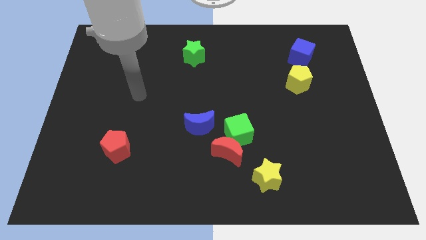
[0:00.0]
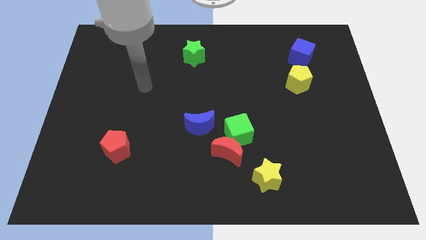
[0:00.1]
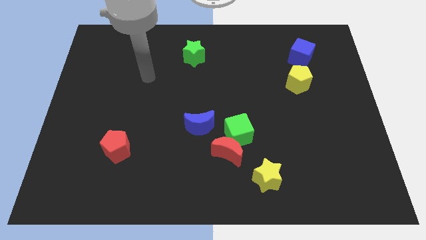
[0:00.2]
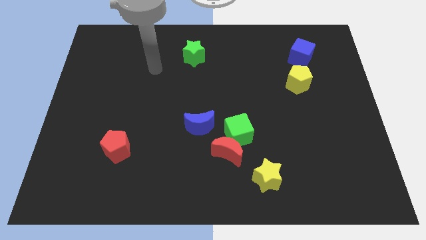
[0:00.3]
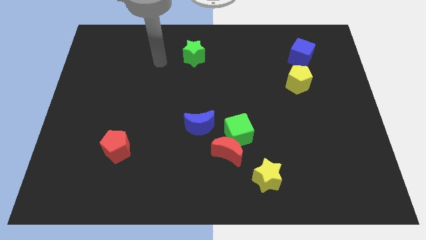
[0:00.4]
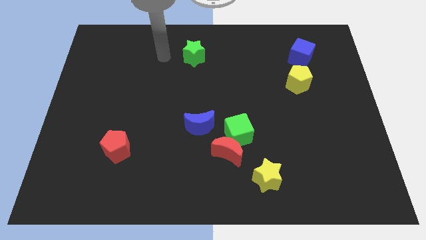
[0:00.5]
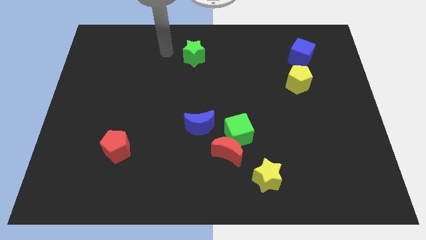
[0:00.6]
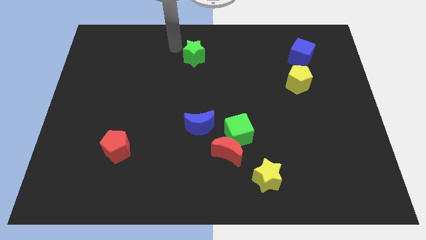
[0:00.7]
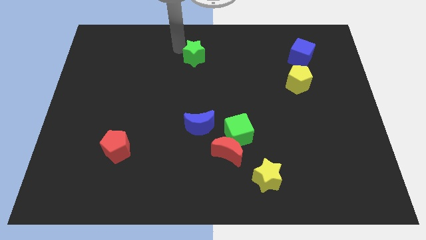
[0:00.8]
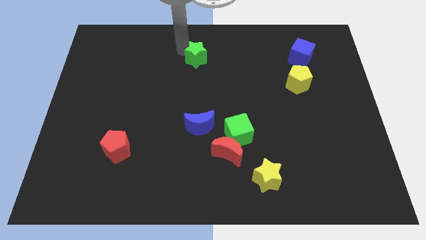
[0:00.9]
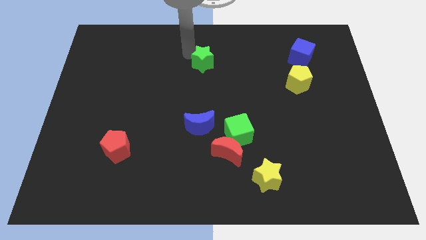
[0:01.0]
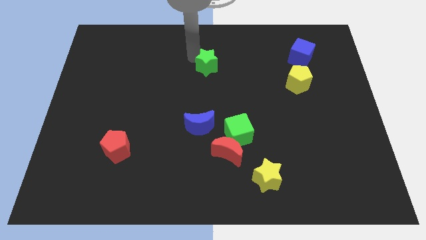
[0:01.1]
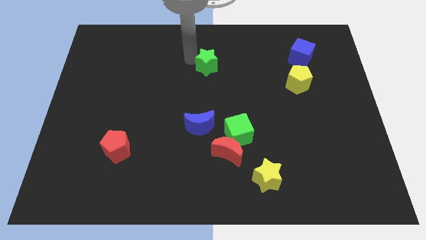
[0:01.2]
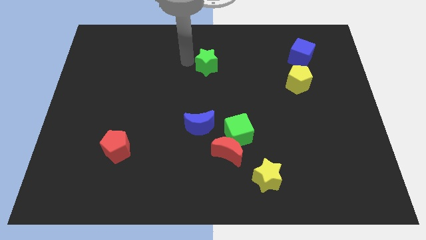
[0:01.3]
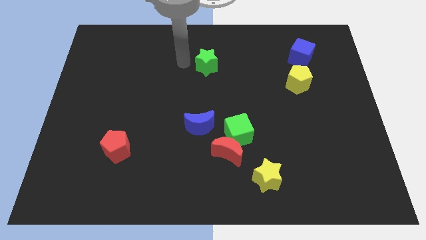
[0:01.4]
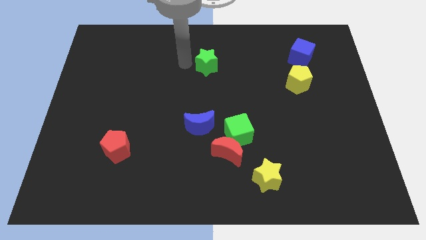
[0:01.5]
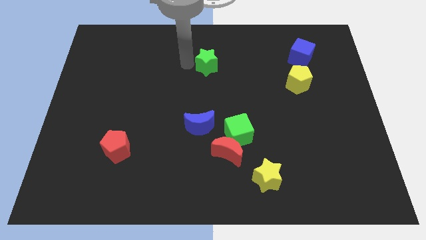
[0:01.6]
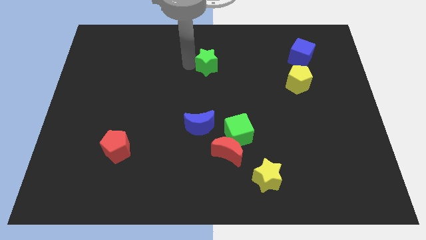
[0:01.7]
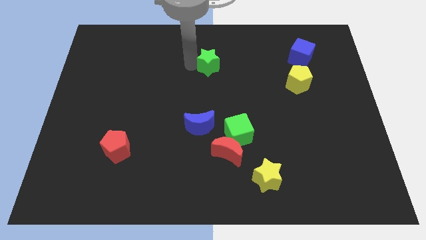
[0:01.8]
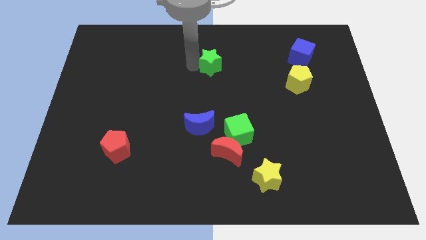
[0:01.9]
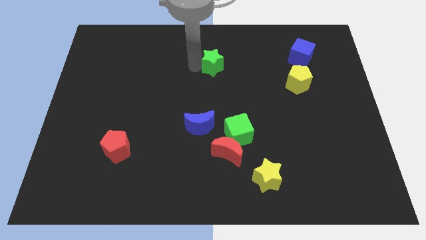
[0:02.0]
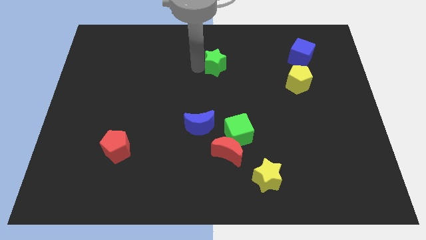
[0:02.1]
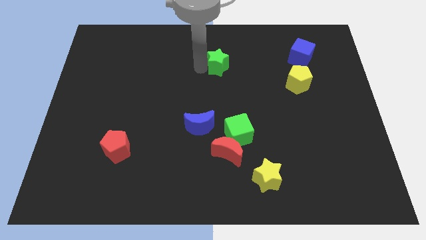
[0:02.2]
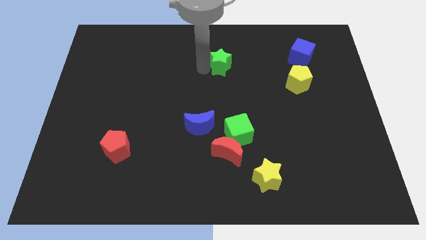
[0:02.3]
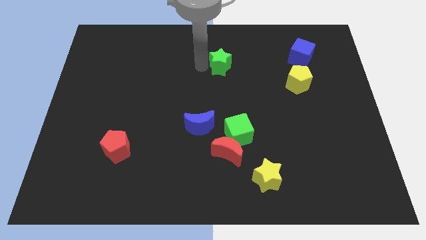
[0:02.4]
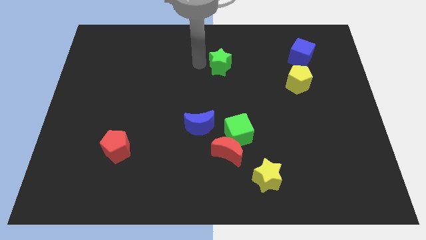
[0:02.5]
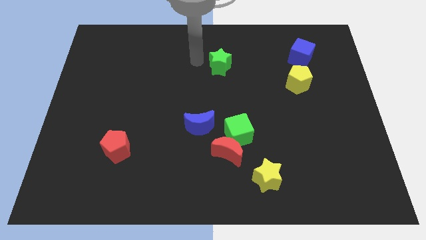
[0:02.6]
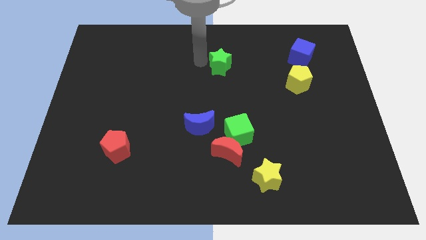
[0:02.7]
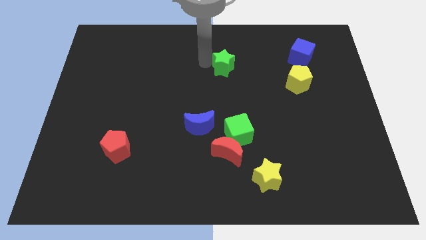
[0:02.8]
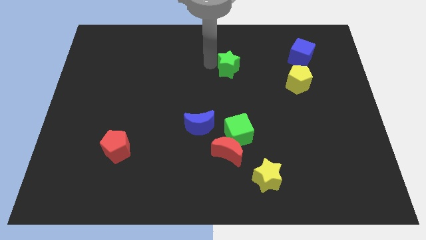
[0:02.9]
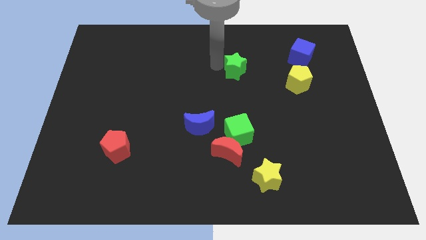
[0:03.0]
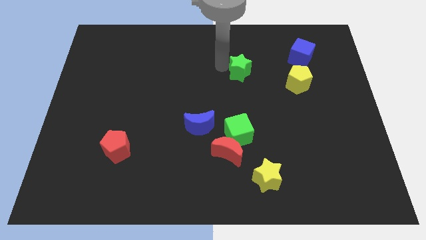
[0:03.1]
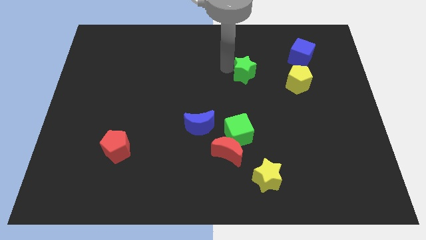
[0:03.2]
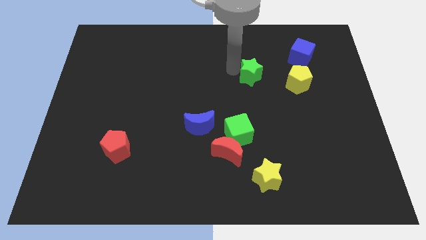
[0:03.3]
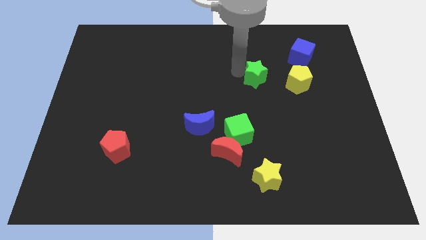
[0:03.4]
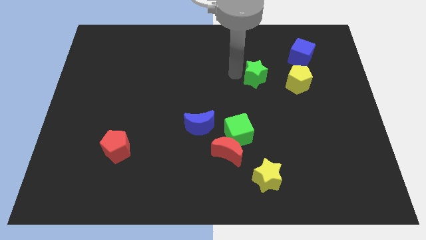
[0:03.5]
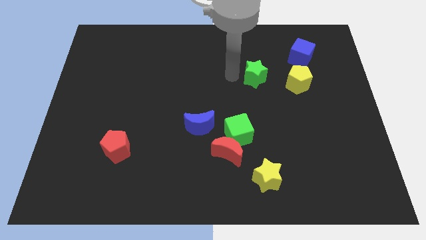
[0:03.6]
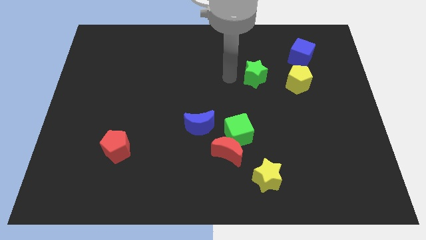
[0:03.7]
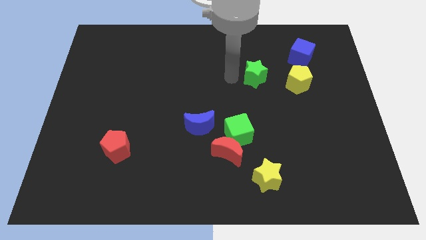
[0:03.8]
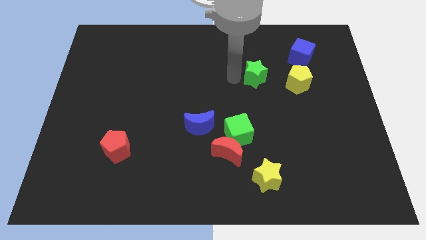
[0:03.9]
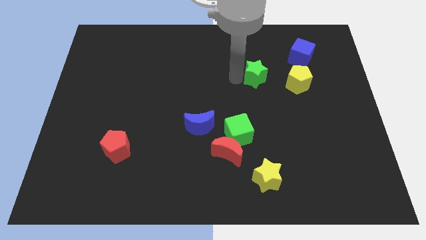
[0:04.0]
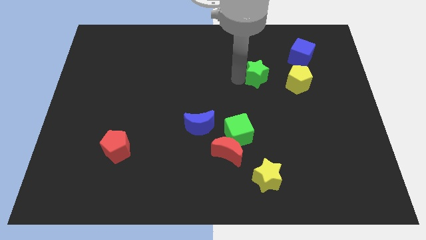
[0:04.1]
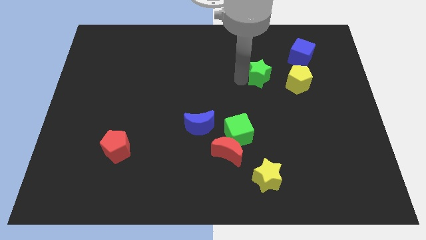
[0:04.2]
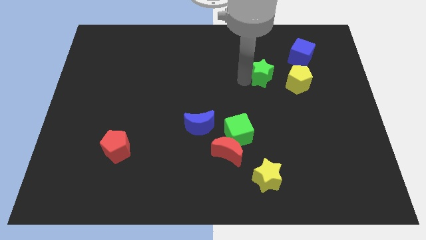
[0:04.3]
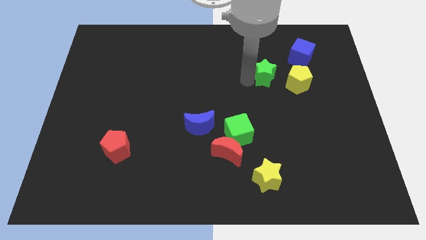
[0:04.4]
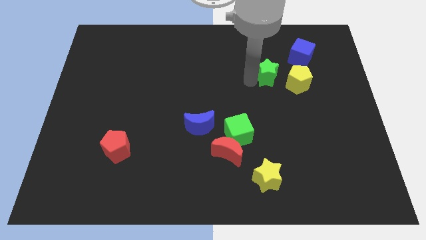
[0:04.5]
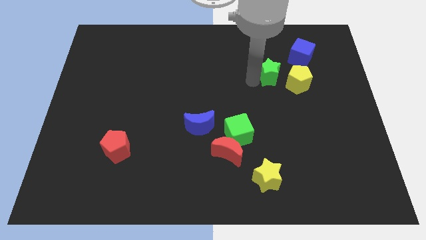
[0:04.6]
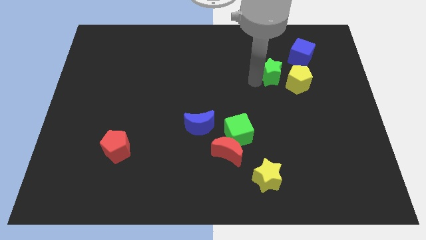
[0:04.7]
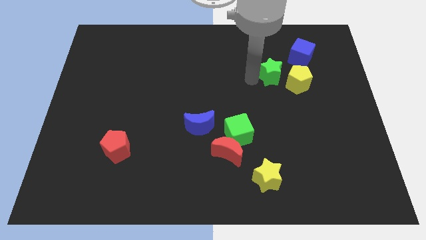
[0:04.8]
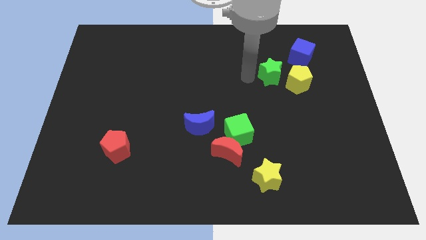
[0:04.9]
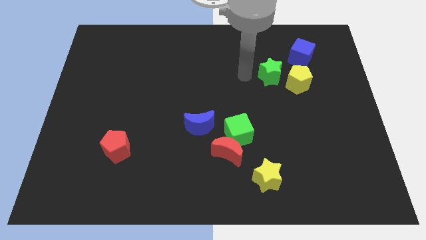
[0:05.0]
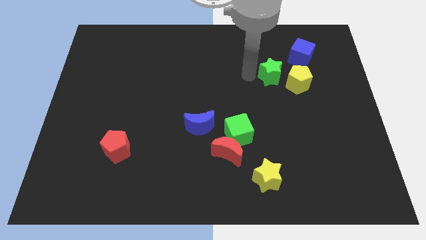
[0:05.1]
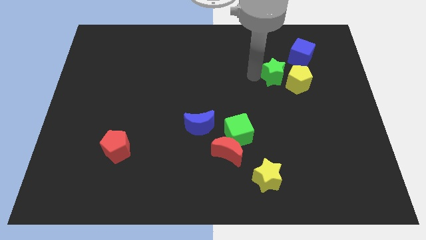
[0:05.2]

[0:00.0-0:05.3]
push the green star towards the yellow pentagon

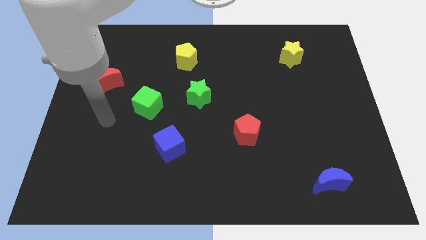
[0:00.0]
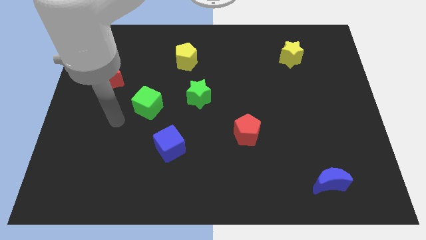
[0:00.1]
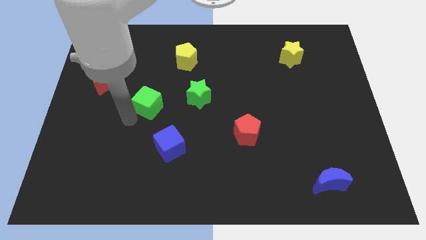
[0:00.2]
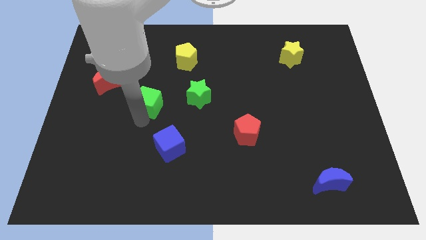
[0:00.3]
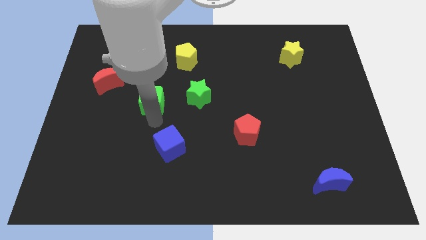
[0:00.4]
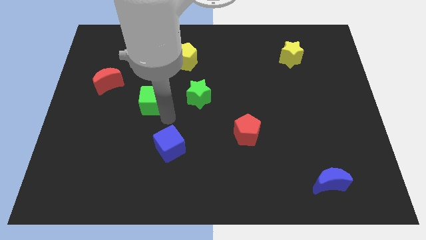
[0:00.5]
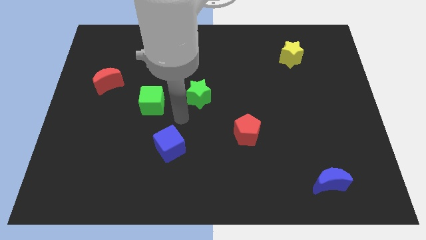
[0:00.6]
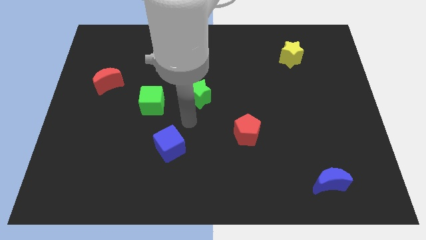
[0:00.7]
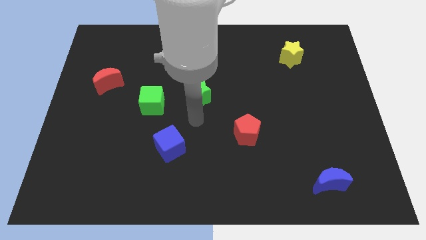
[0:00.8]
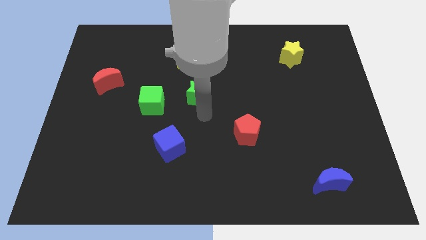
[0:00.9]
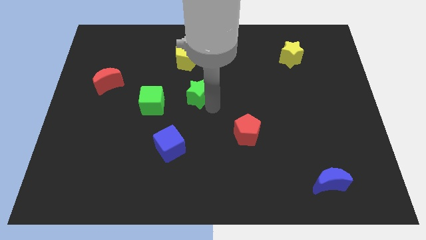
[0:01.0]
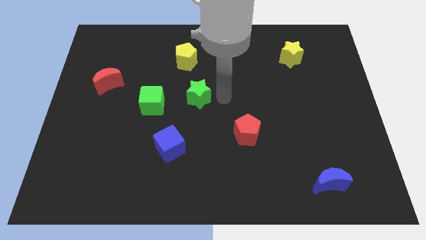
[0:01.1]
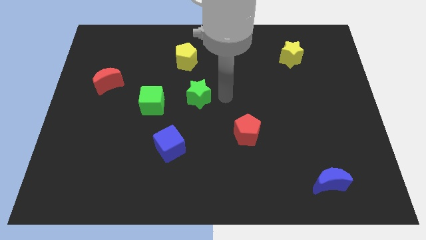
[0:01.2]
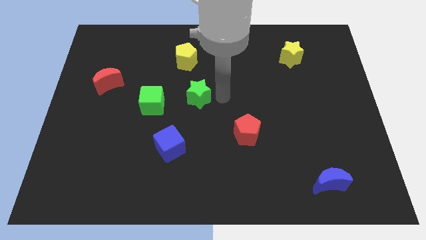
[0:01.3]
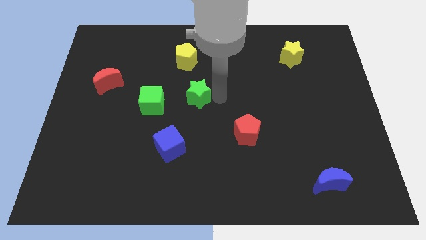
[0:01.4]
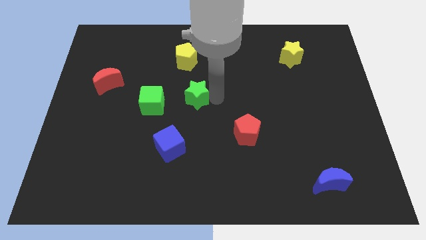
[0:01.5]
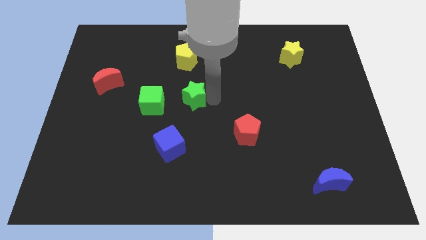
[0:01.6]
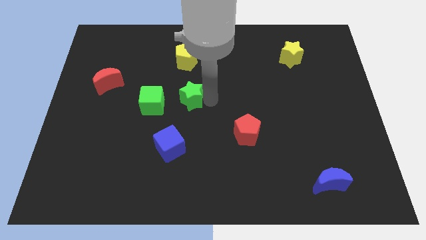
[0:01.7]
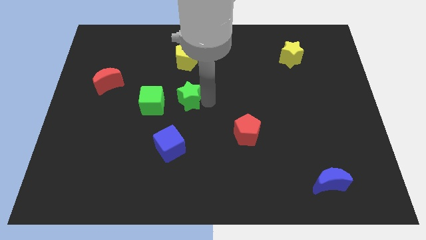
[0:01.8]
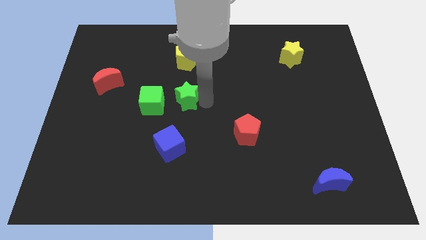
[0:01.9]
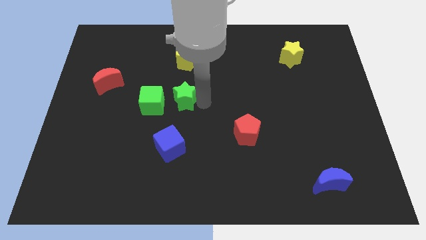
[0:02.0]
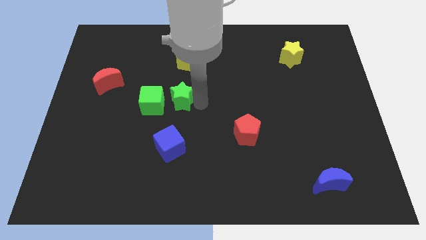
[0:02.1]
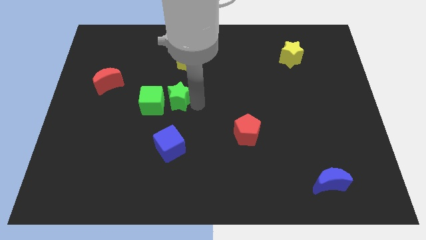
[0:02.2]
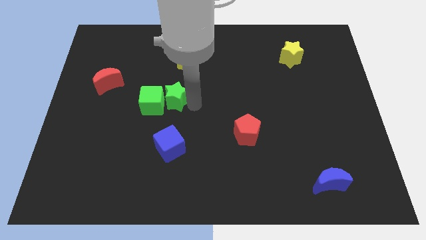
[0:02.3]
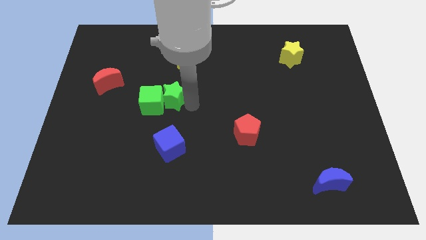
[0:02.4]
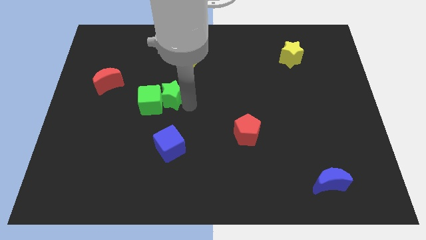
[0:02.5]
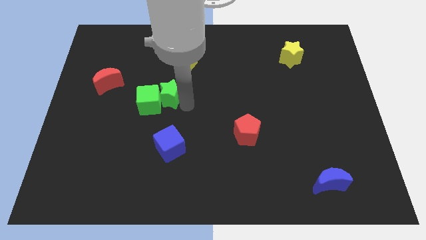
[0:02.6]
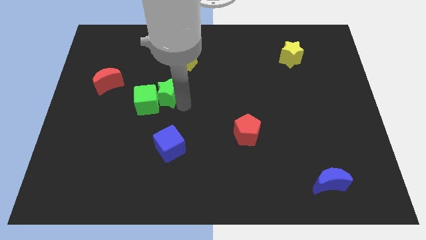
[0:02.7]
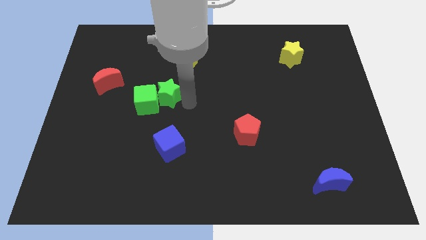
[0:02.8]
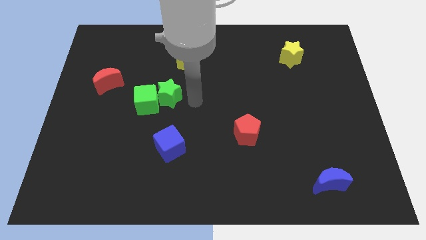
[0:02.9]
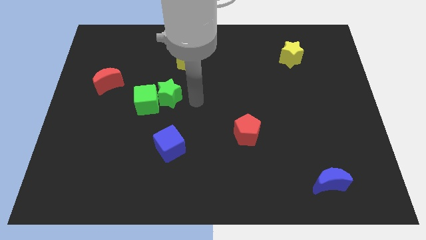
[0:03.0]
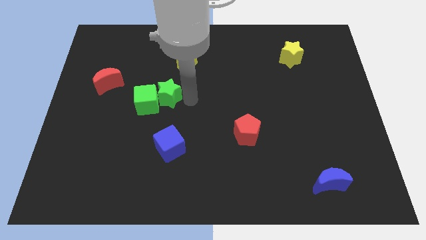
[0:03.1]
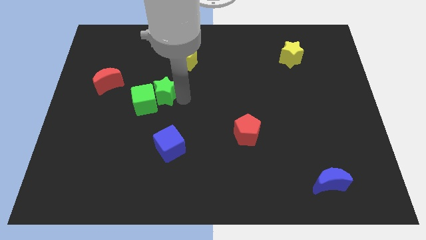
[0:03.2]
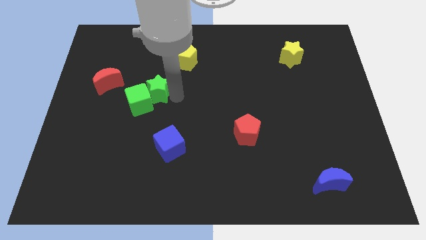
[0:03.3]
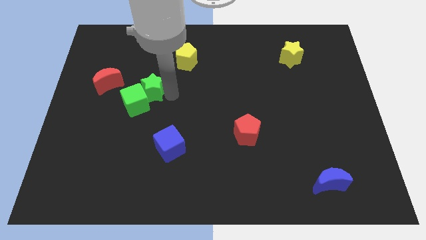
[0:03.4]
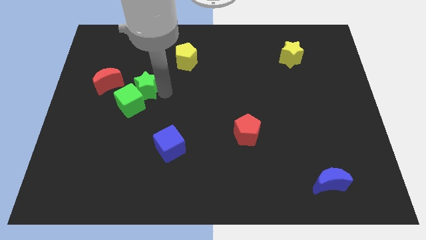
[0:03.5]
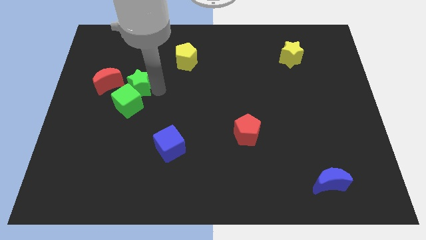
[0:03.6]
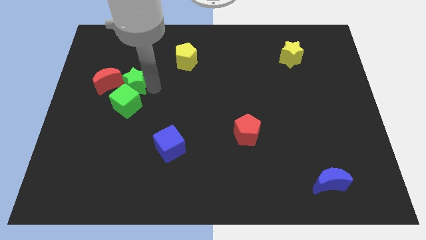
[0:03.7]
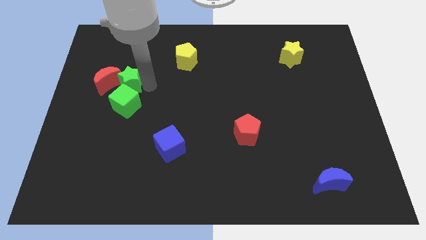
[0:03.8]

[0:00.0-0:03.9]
slide the green star close to the red moon
